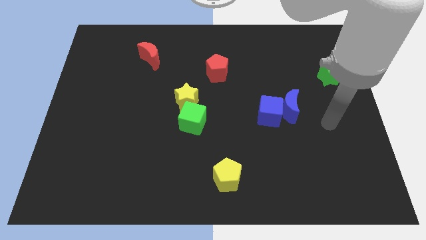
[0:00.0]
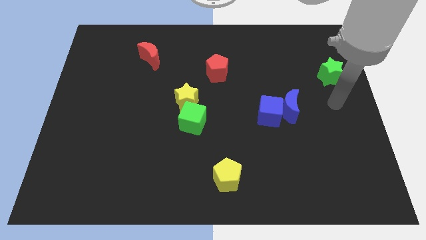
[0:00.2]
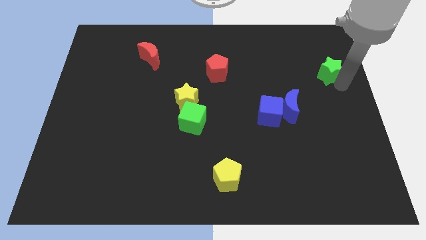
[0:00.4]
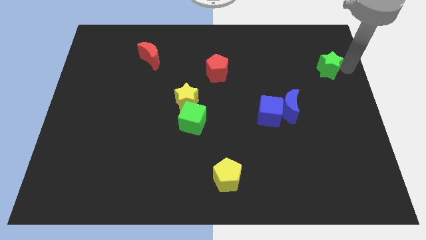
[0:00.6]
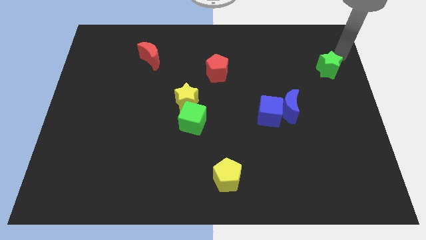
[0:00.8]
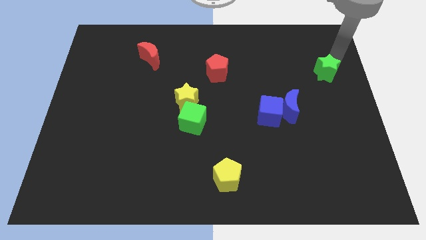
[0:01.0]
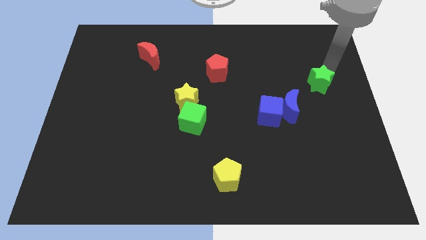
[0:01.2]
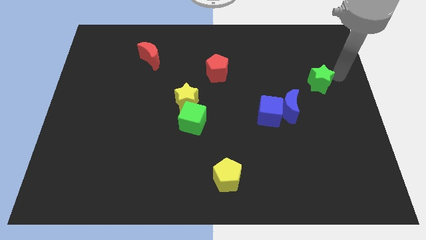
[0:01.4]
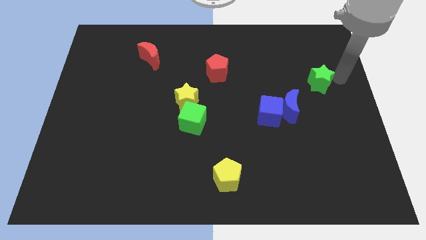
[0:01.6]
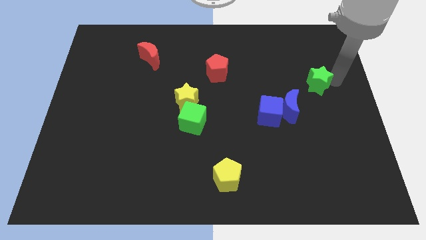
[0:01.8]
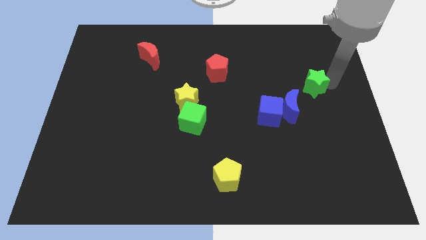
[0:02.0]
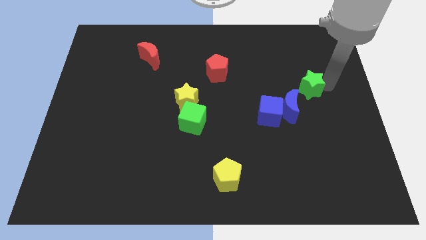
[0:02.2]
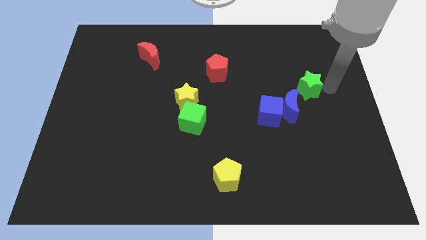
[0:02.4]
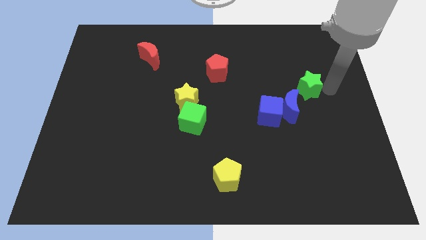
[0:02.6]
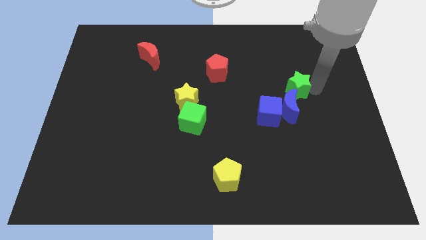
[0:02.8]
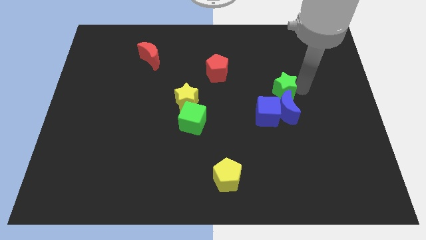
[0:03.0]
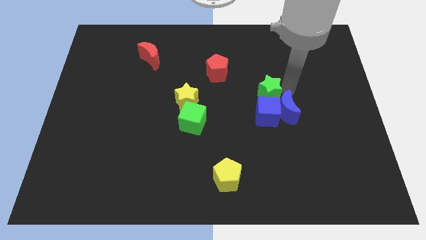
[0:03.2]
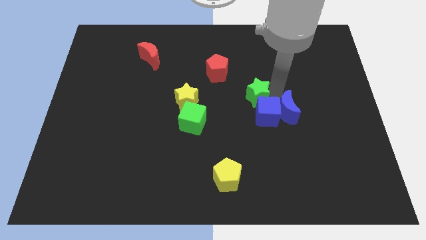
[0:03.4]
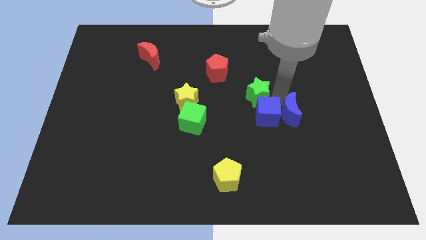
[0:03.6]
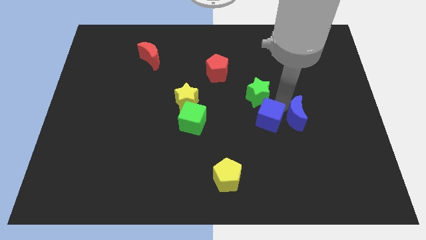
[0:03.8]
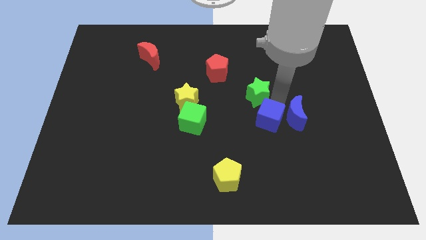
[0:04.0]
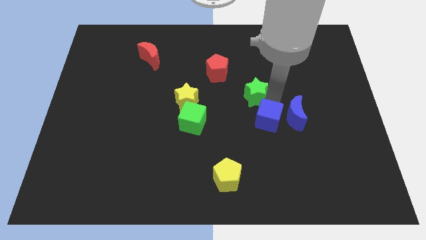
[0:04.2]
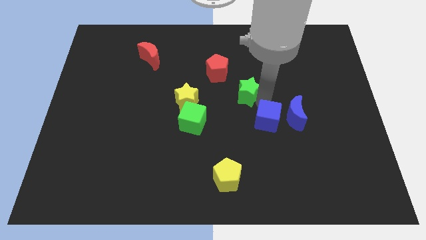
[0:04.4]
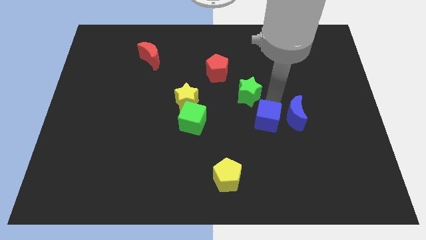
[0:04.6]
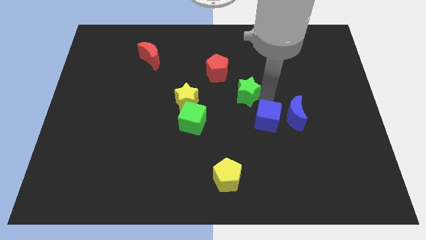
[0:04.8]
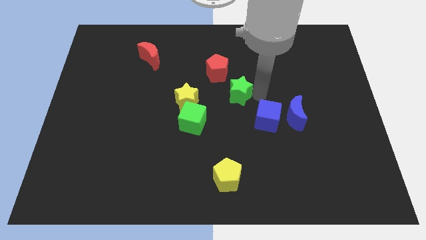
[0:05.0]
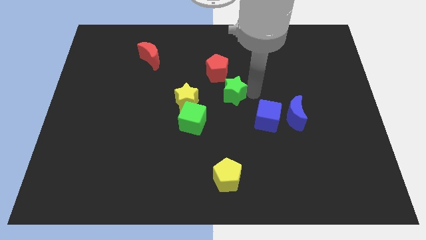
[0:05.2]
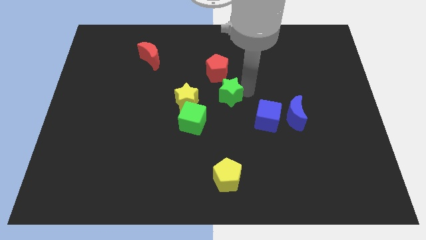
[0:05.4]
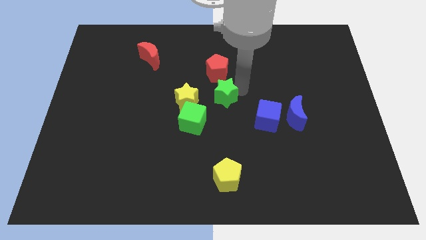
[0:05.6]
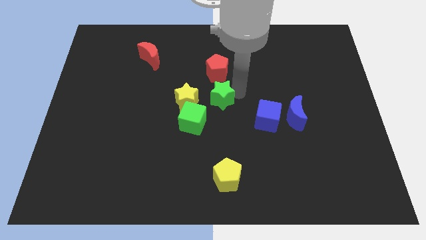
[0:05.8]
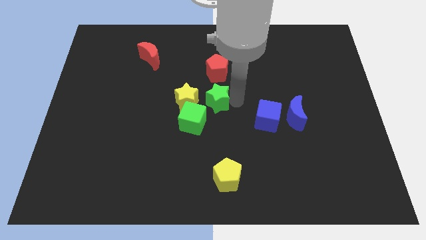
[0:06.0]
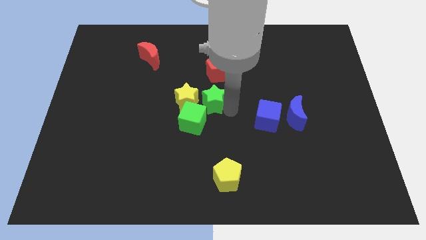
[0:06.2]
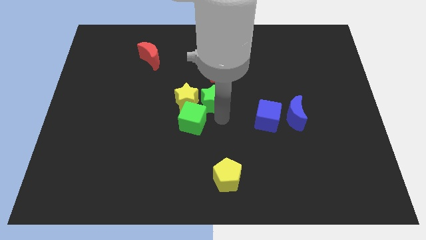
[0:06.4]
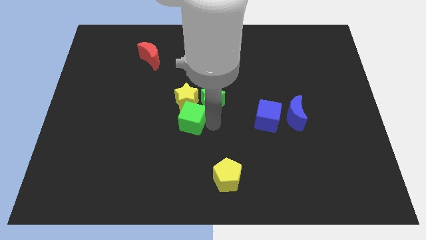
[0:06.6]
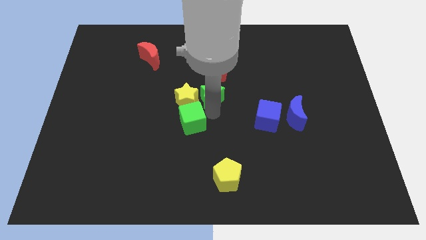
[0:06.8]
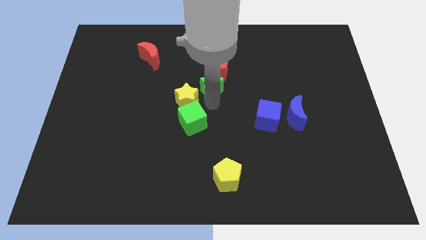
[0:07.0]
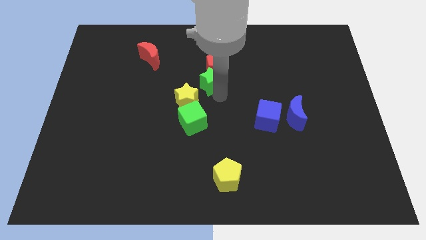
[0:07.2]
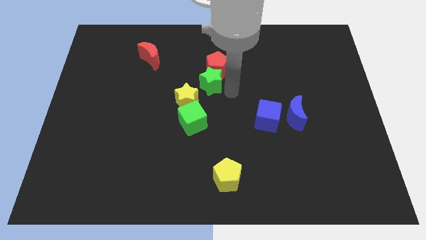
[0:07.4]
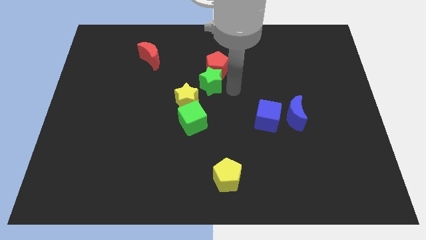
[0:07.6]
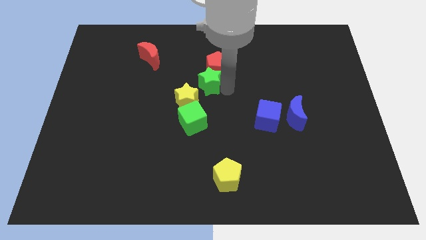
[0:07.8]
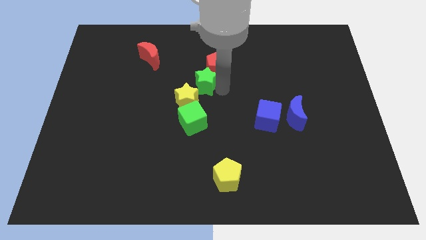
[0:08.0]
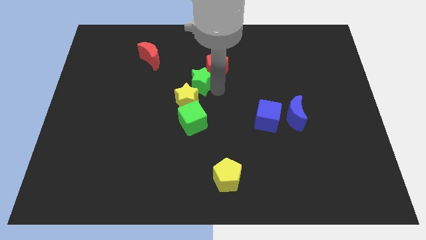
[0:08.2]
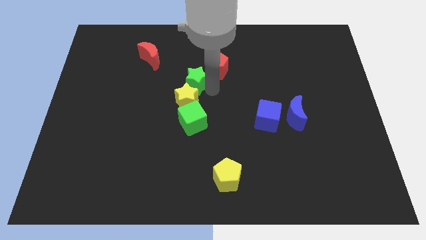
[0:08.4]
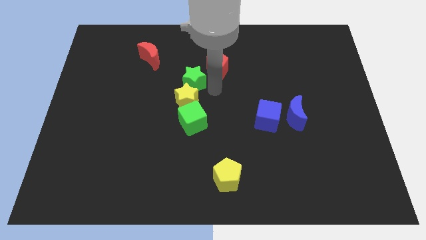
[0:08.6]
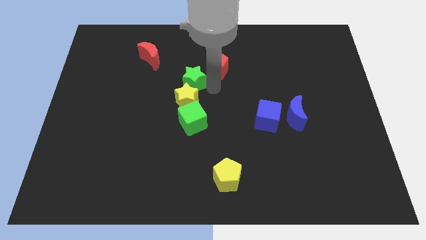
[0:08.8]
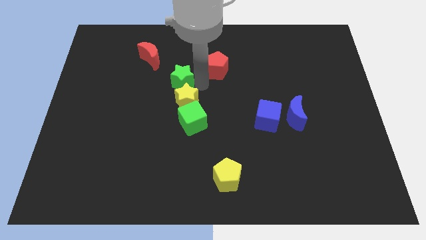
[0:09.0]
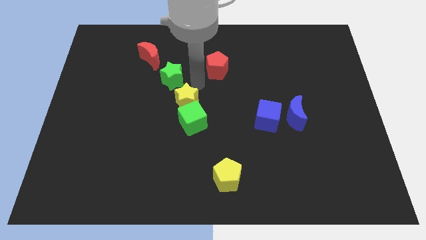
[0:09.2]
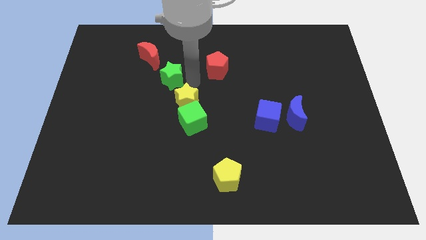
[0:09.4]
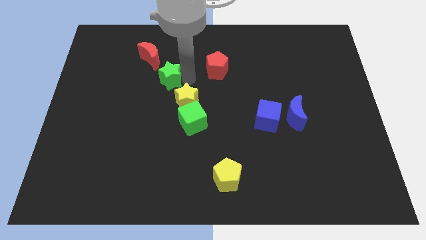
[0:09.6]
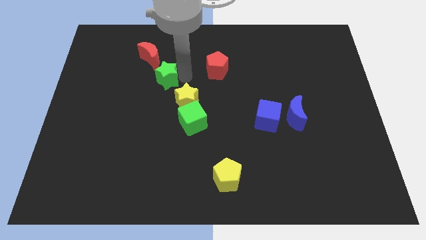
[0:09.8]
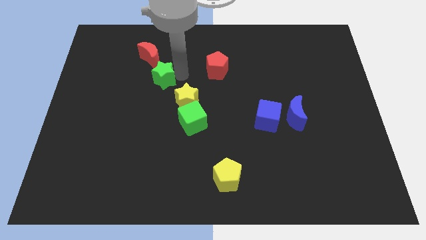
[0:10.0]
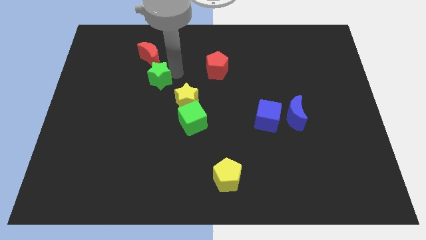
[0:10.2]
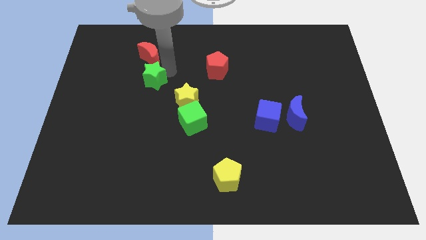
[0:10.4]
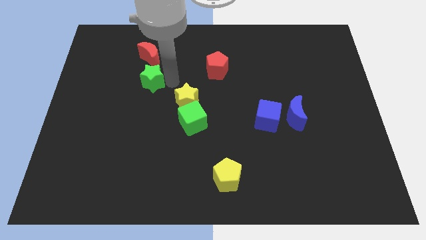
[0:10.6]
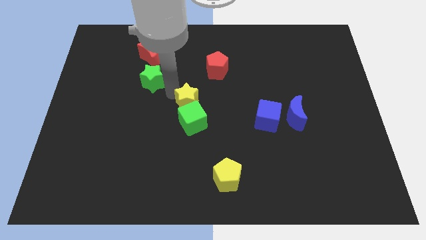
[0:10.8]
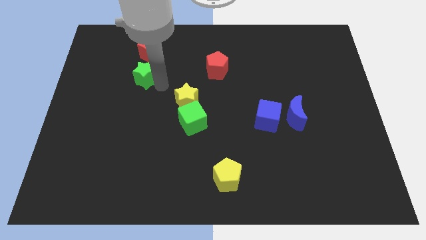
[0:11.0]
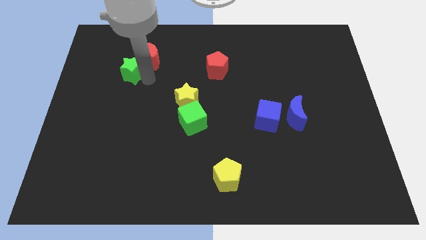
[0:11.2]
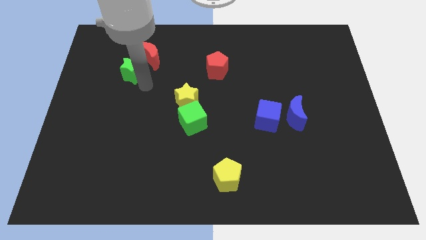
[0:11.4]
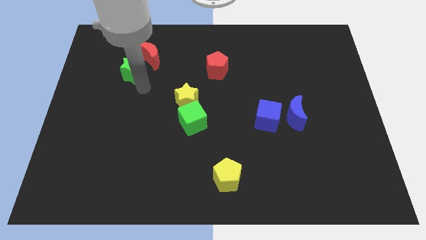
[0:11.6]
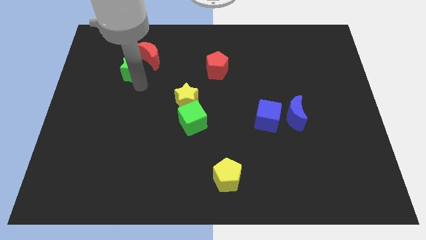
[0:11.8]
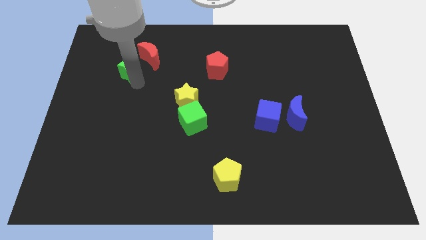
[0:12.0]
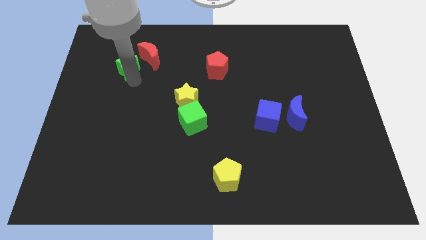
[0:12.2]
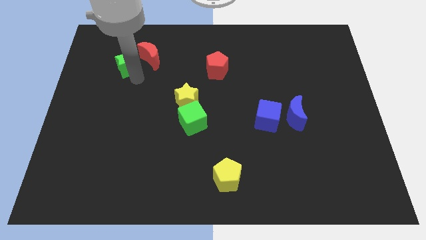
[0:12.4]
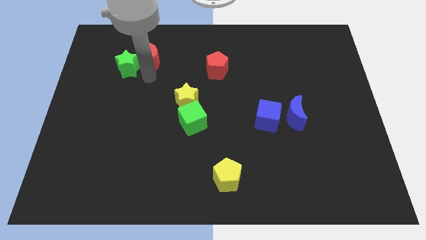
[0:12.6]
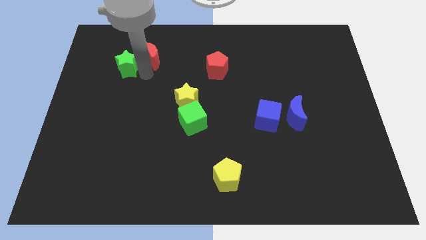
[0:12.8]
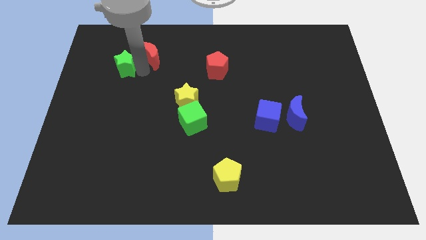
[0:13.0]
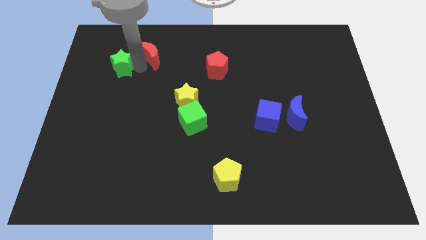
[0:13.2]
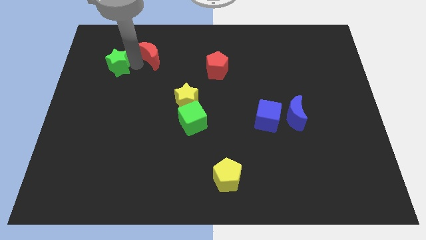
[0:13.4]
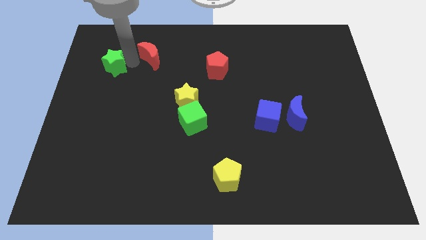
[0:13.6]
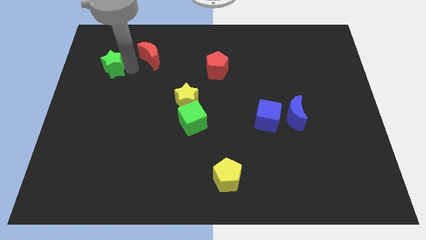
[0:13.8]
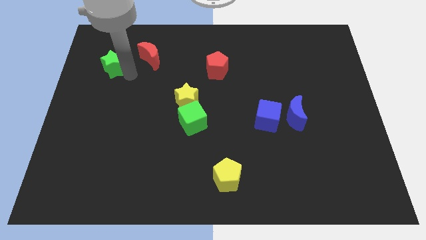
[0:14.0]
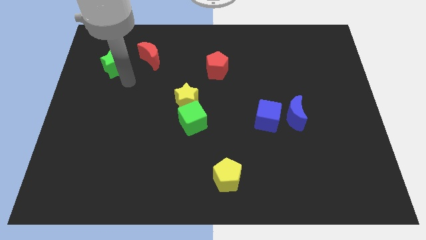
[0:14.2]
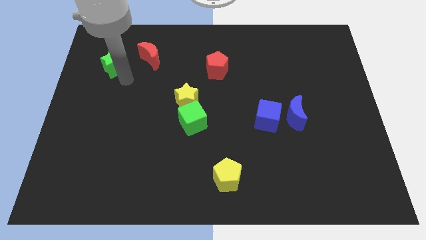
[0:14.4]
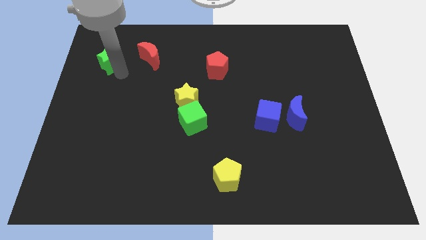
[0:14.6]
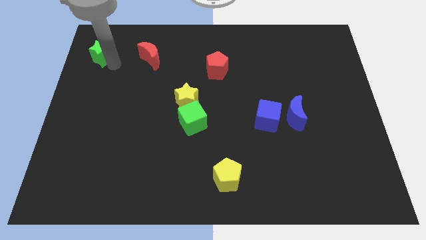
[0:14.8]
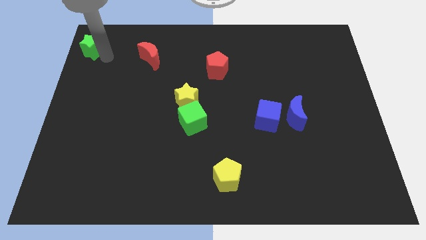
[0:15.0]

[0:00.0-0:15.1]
slide the green star to the upper left corner
